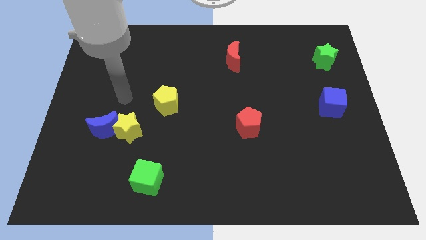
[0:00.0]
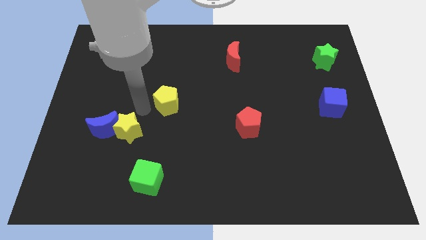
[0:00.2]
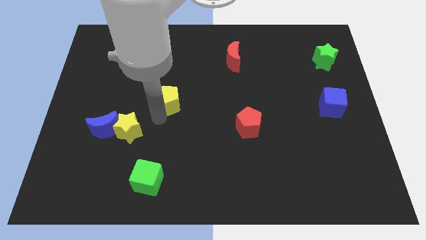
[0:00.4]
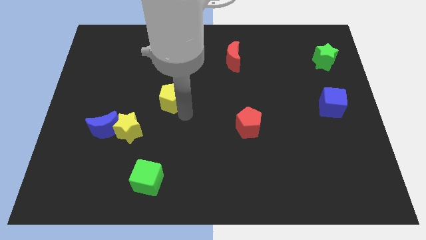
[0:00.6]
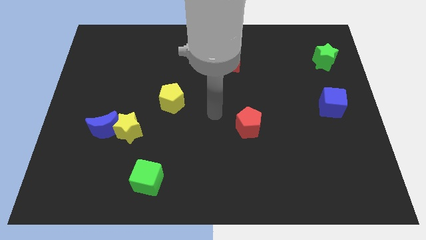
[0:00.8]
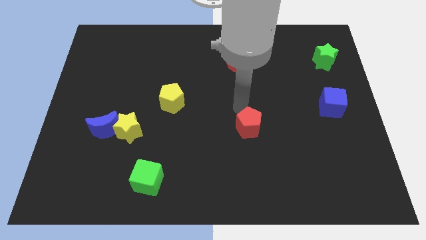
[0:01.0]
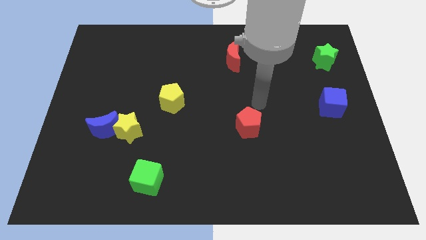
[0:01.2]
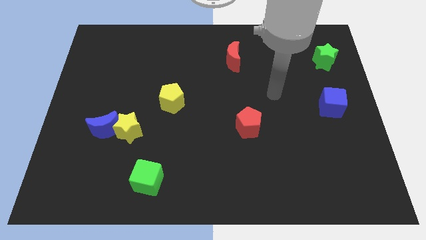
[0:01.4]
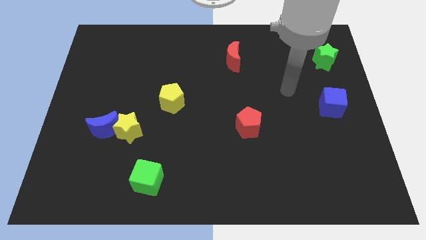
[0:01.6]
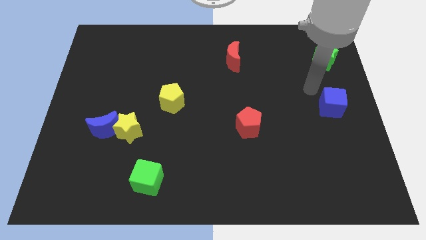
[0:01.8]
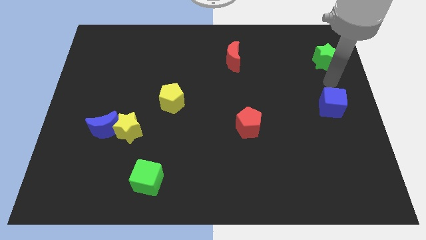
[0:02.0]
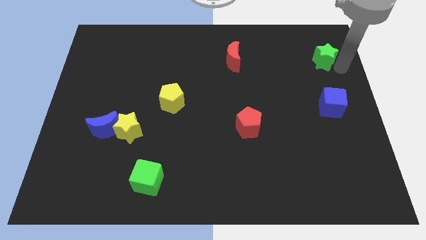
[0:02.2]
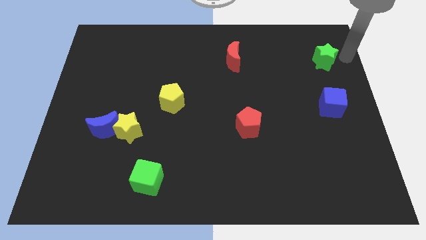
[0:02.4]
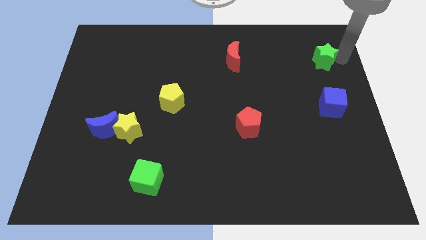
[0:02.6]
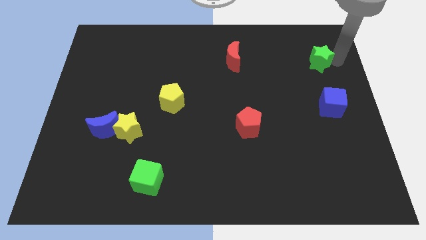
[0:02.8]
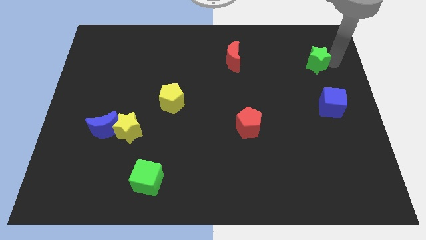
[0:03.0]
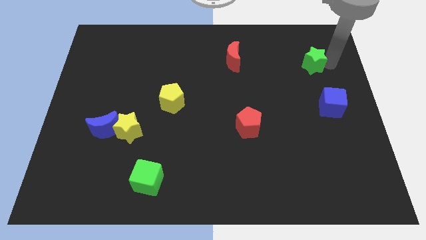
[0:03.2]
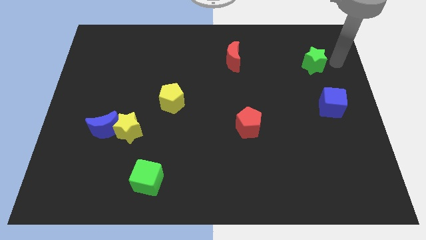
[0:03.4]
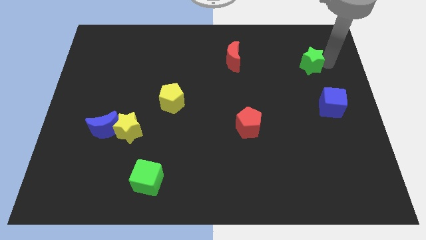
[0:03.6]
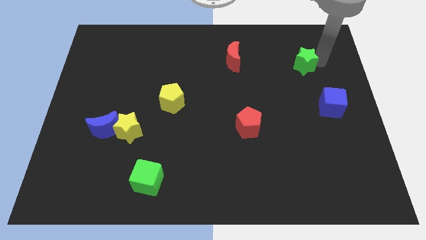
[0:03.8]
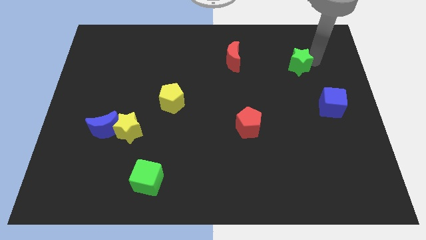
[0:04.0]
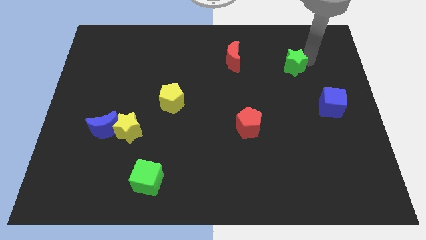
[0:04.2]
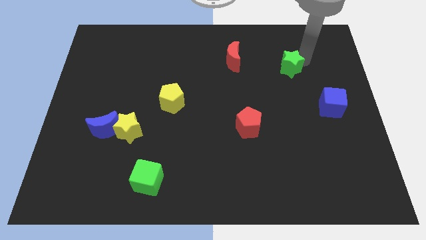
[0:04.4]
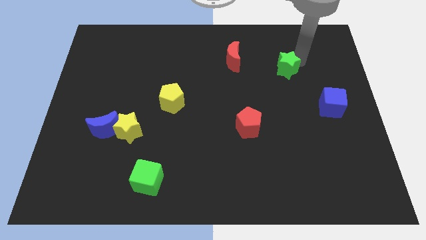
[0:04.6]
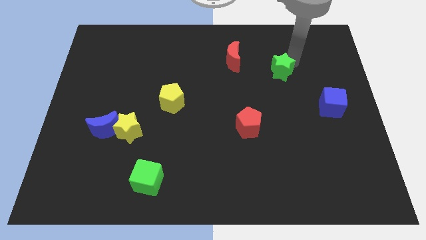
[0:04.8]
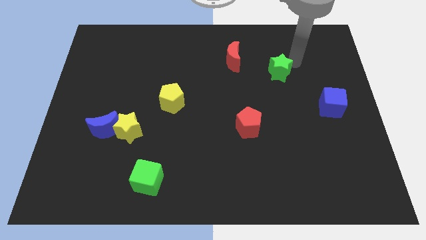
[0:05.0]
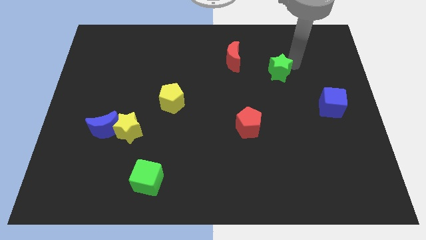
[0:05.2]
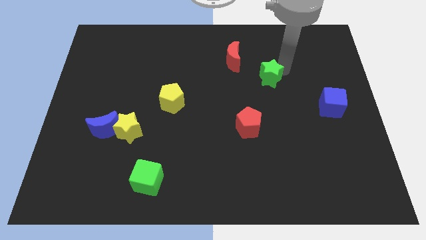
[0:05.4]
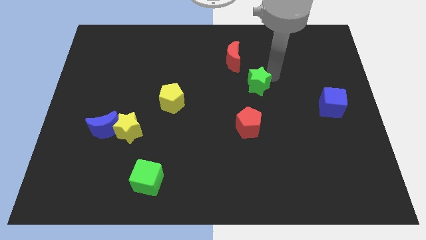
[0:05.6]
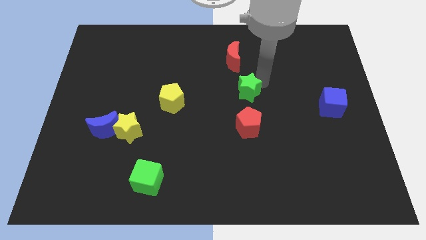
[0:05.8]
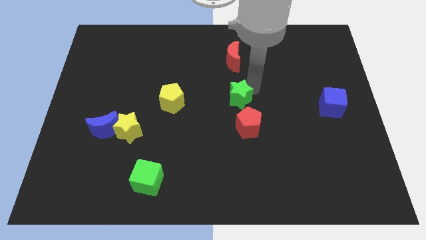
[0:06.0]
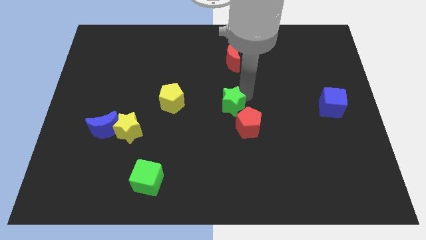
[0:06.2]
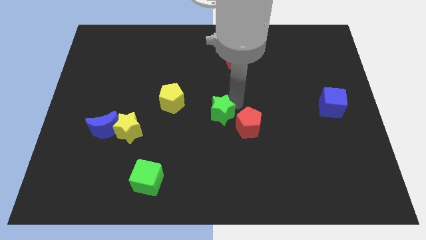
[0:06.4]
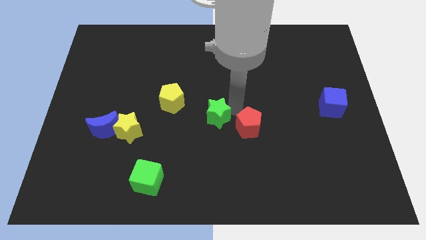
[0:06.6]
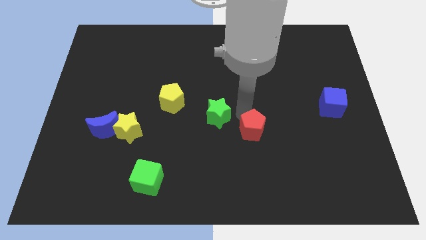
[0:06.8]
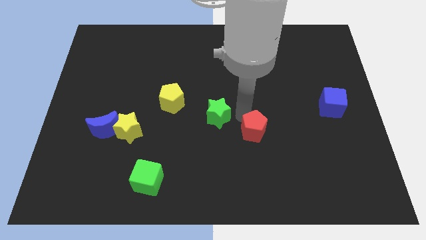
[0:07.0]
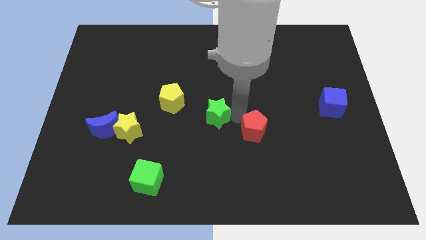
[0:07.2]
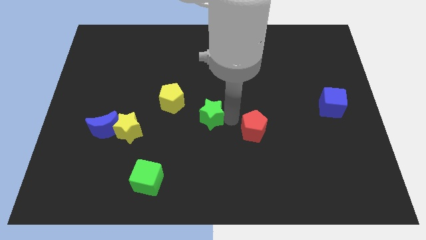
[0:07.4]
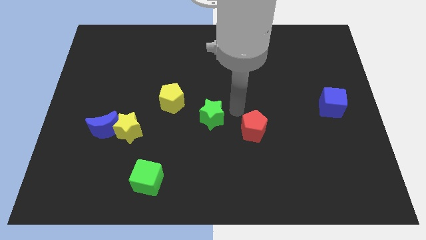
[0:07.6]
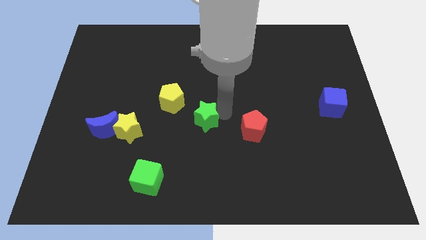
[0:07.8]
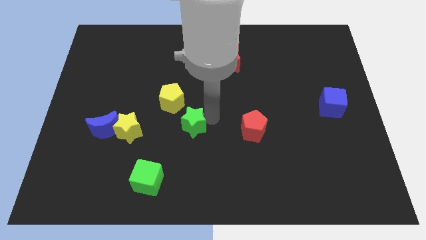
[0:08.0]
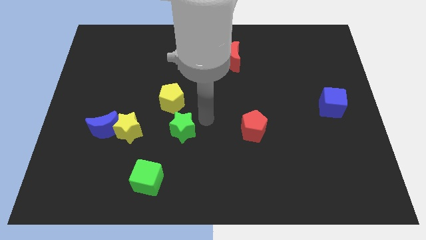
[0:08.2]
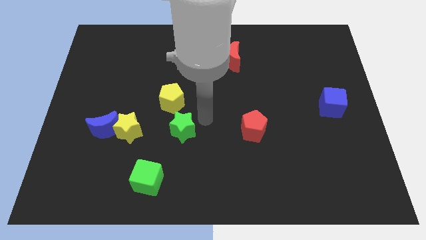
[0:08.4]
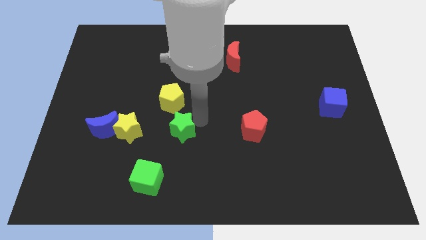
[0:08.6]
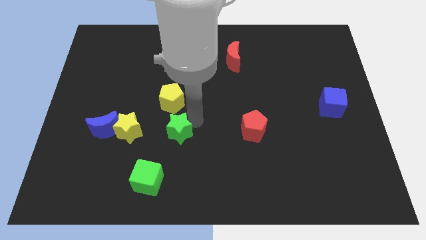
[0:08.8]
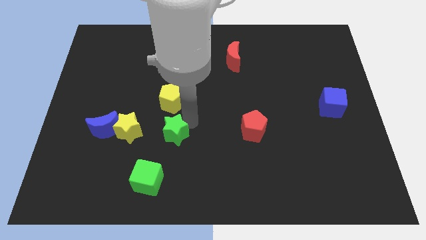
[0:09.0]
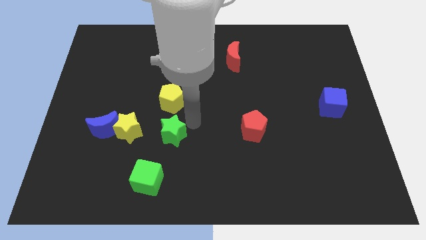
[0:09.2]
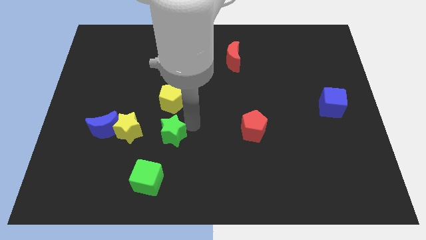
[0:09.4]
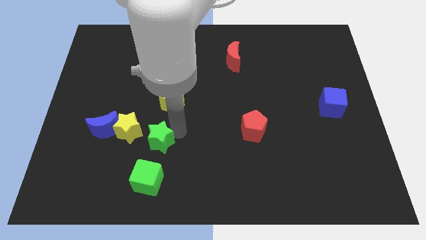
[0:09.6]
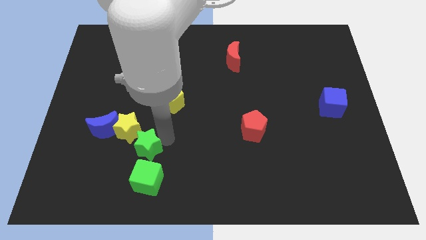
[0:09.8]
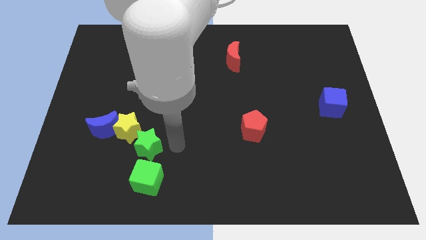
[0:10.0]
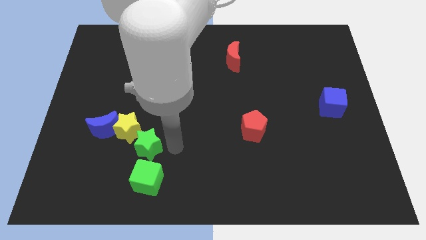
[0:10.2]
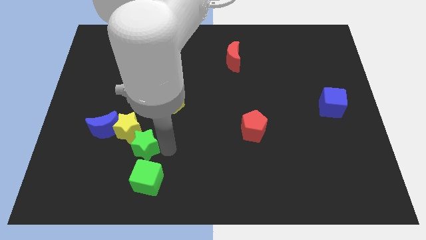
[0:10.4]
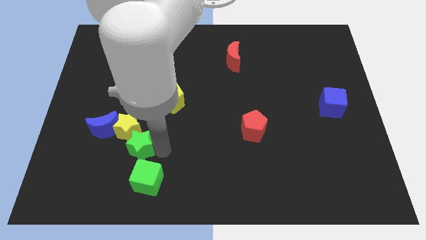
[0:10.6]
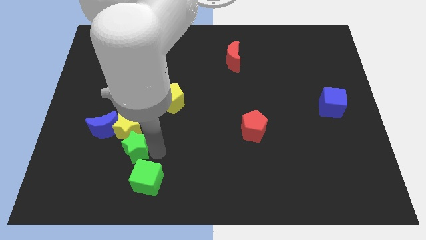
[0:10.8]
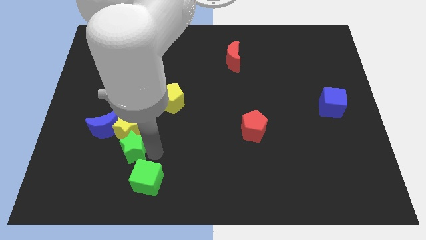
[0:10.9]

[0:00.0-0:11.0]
slide the green star to the bottom left side of the yellow star

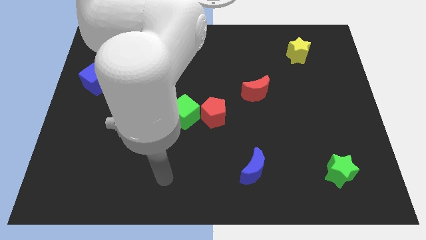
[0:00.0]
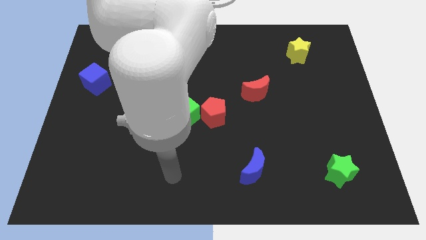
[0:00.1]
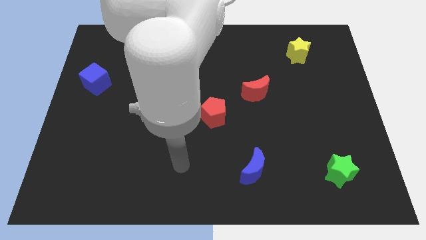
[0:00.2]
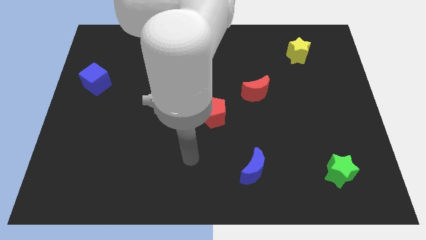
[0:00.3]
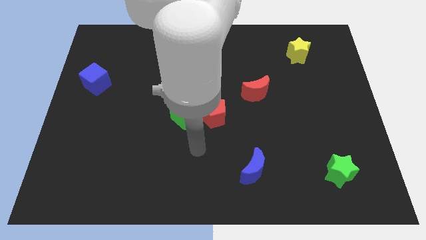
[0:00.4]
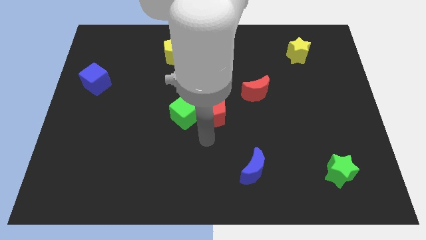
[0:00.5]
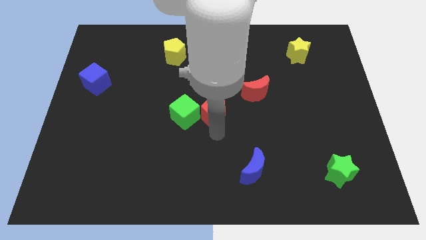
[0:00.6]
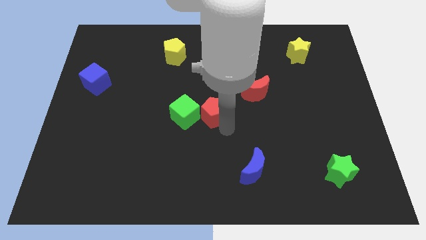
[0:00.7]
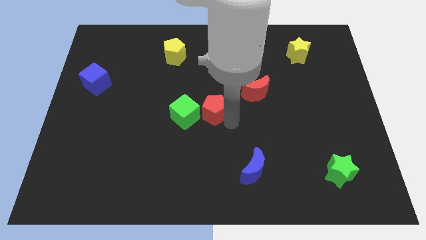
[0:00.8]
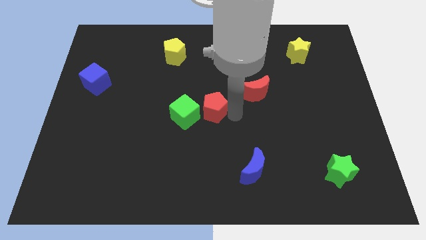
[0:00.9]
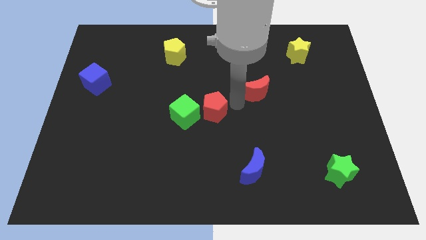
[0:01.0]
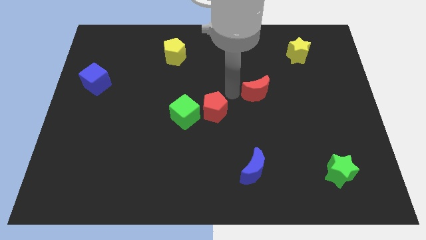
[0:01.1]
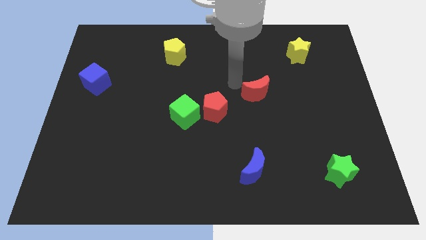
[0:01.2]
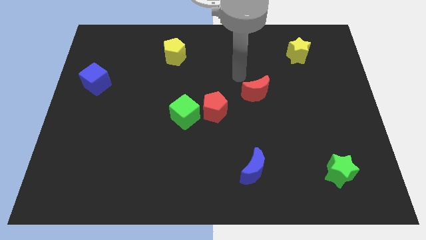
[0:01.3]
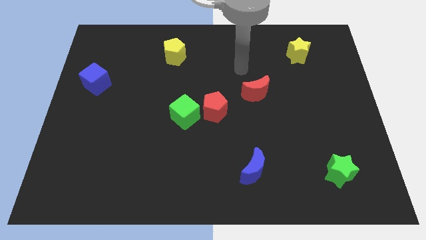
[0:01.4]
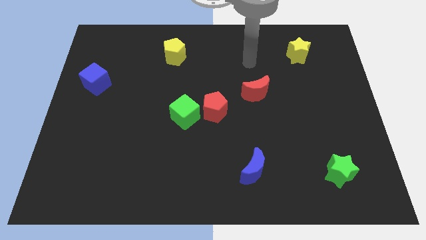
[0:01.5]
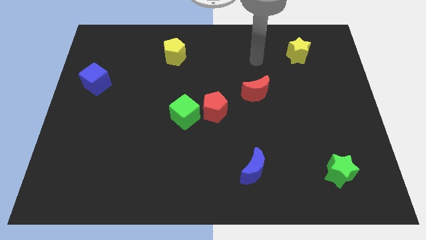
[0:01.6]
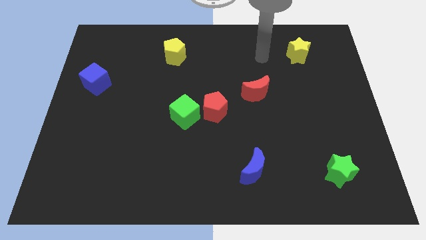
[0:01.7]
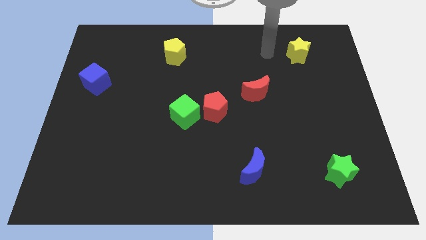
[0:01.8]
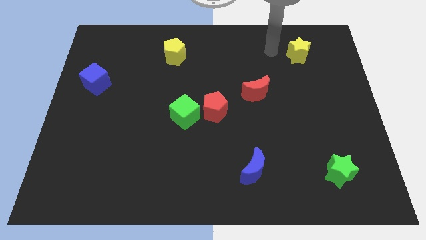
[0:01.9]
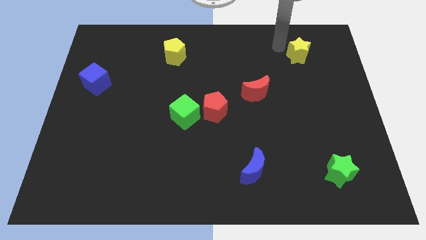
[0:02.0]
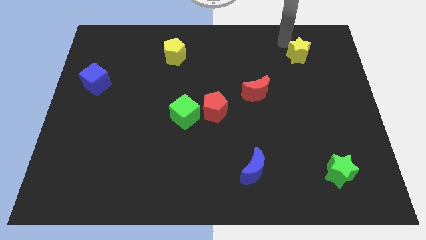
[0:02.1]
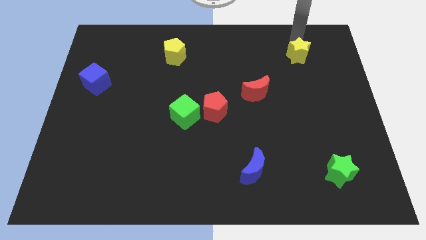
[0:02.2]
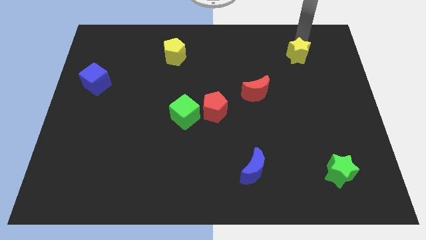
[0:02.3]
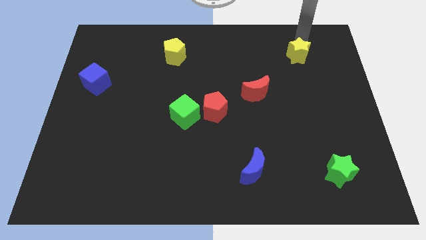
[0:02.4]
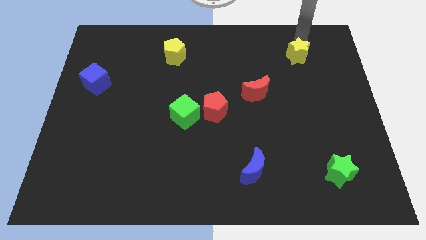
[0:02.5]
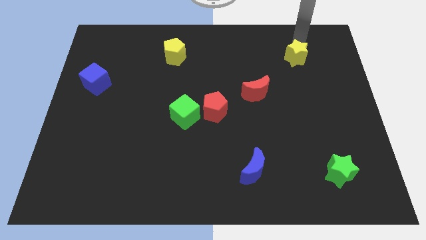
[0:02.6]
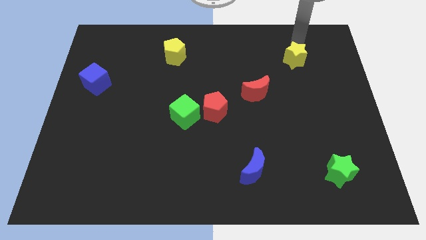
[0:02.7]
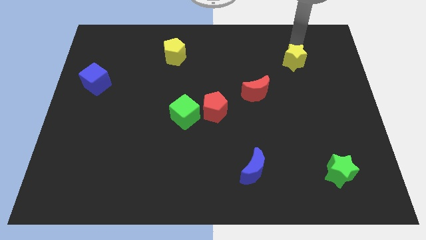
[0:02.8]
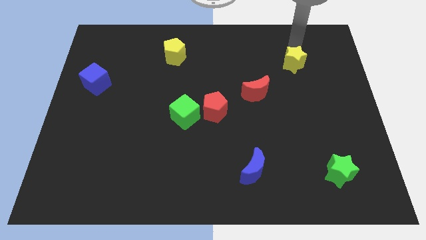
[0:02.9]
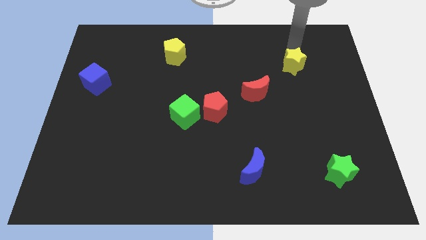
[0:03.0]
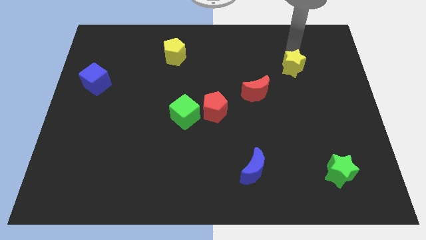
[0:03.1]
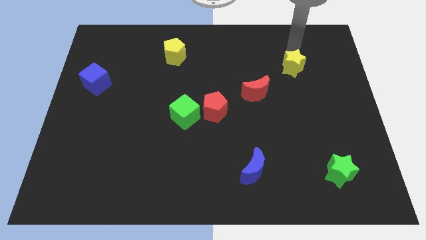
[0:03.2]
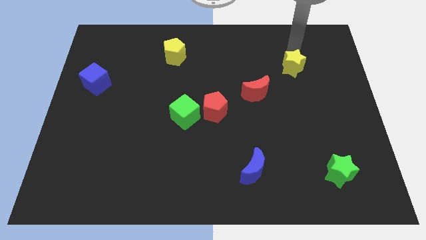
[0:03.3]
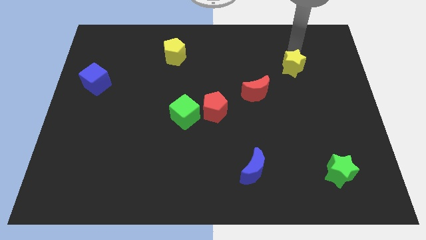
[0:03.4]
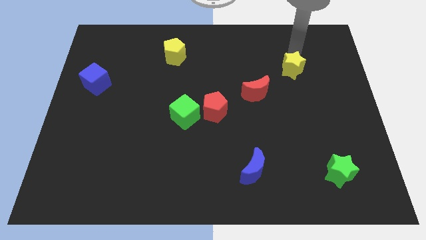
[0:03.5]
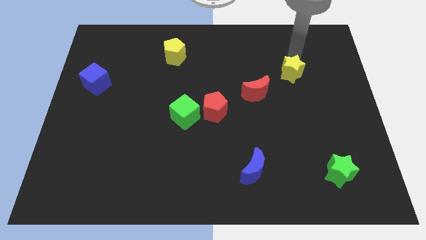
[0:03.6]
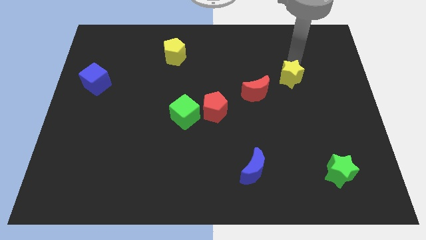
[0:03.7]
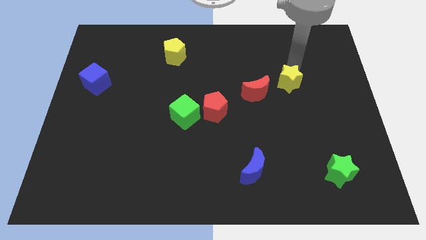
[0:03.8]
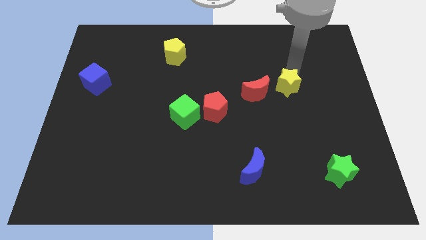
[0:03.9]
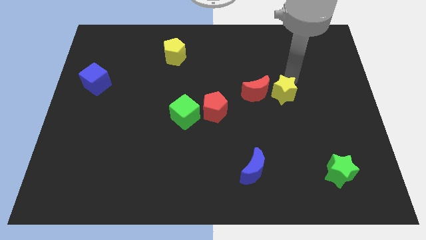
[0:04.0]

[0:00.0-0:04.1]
push the yellow star to the bottom right side of the red moon
